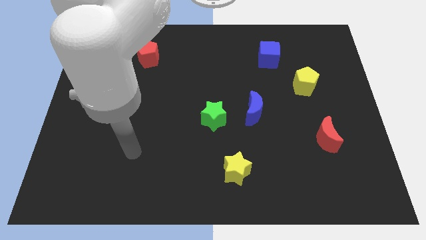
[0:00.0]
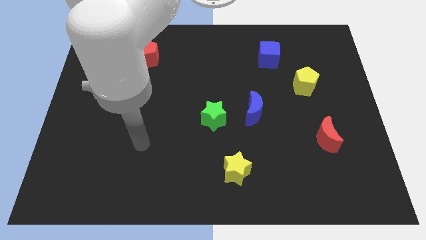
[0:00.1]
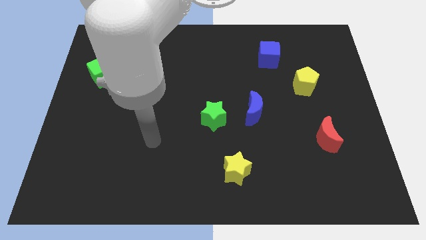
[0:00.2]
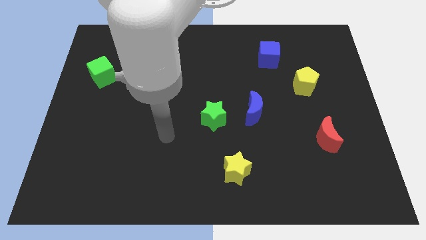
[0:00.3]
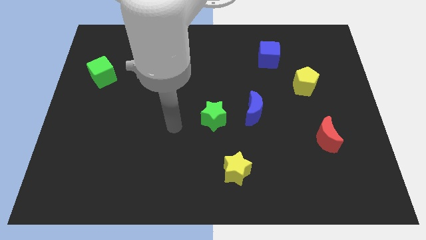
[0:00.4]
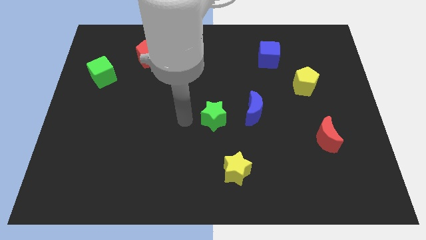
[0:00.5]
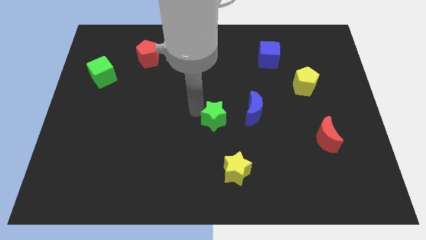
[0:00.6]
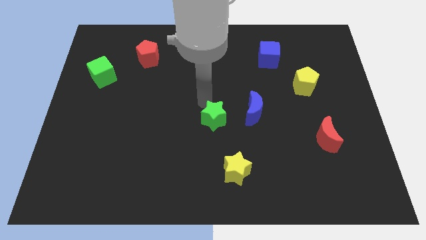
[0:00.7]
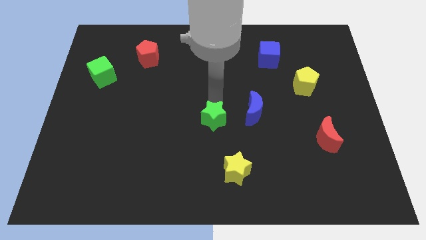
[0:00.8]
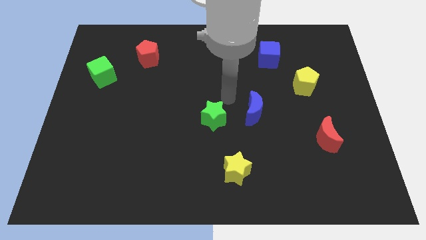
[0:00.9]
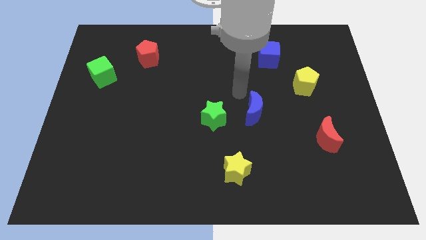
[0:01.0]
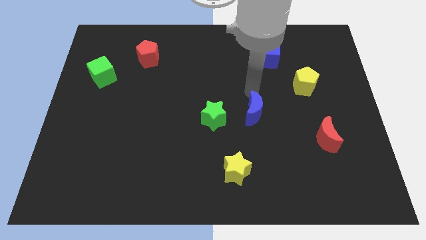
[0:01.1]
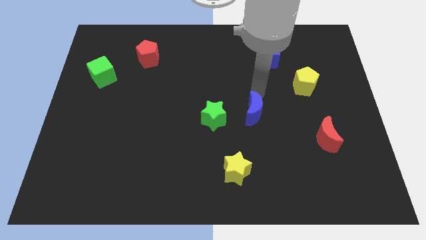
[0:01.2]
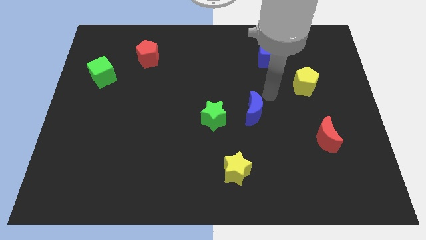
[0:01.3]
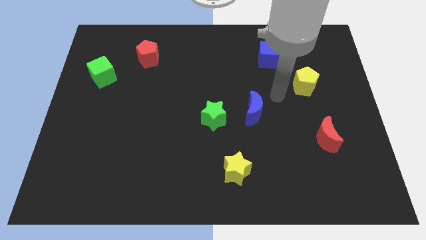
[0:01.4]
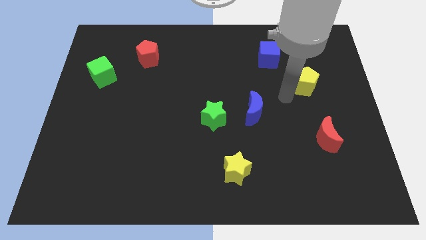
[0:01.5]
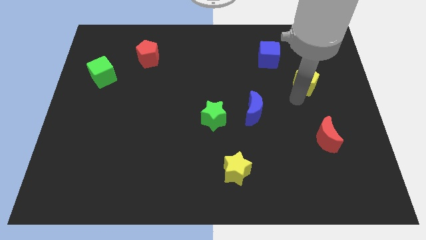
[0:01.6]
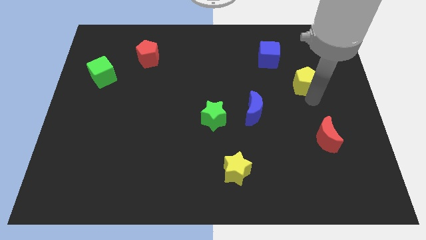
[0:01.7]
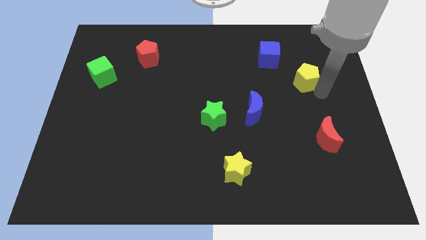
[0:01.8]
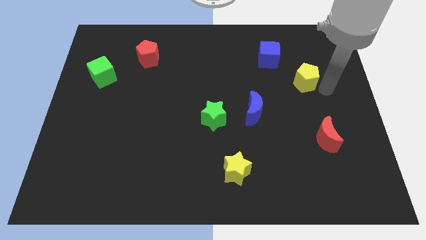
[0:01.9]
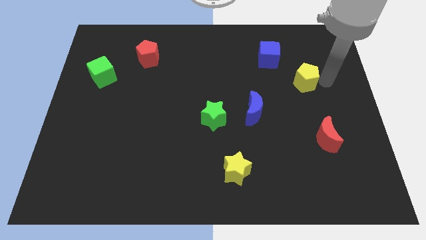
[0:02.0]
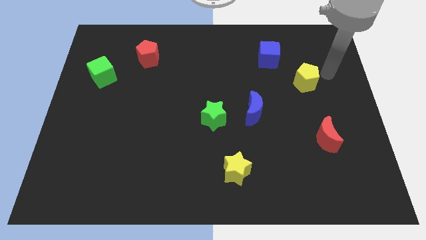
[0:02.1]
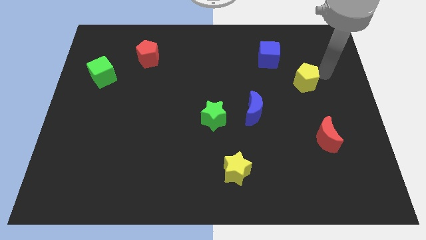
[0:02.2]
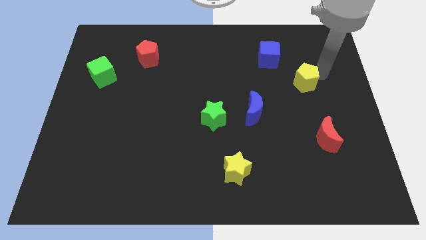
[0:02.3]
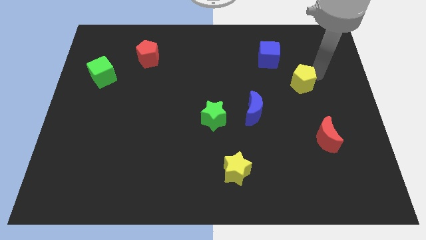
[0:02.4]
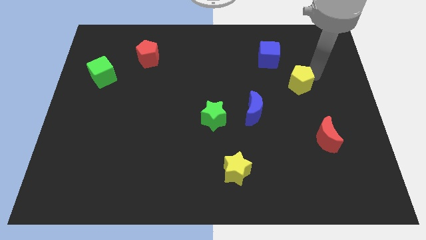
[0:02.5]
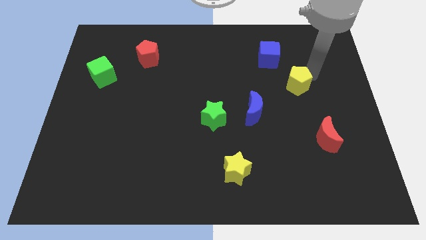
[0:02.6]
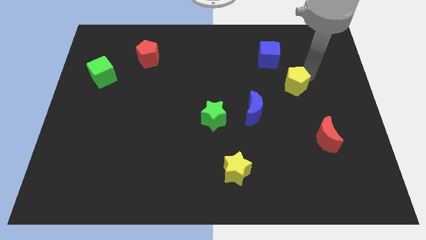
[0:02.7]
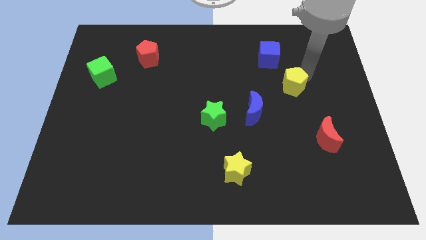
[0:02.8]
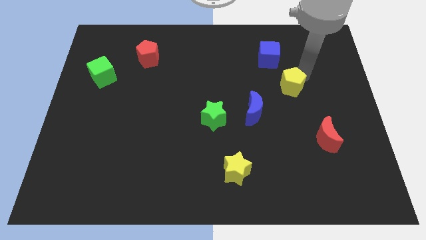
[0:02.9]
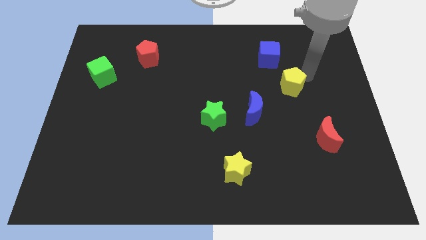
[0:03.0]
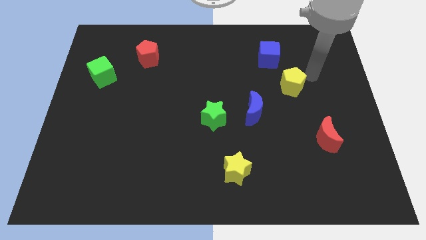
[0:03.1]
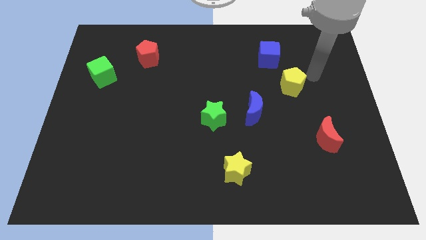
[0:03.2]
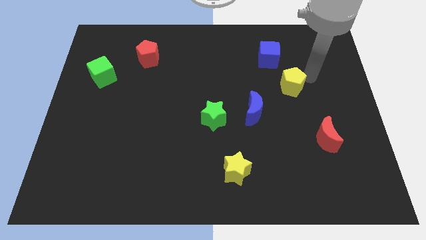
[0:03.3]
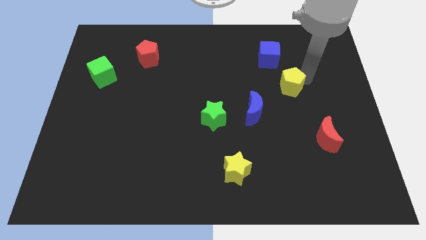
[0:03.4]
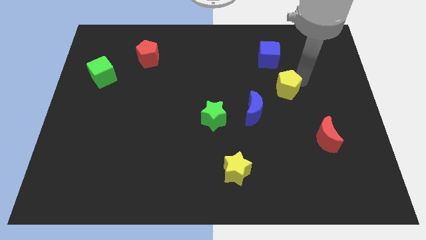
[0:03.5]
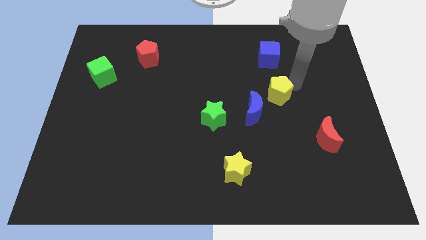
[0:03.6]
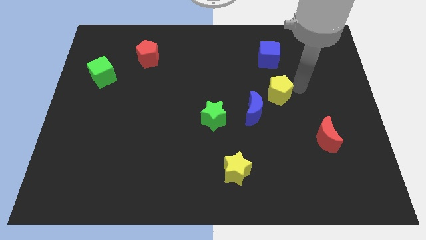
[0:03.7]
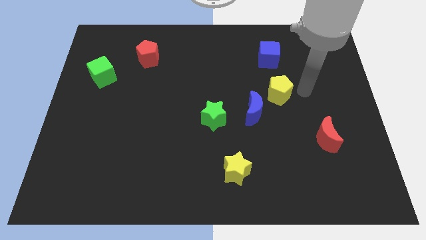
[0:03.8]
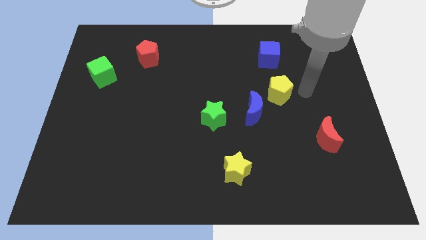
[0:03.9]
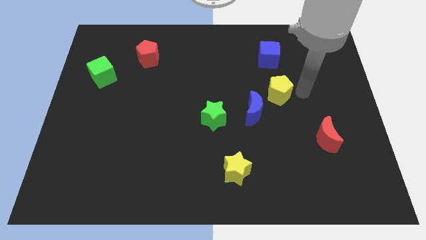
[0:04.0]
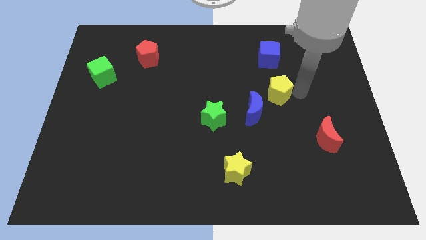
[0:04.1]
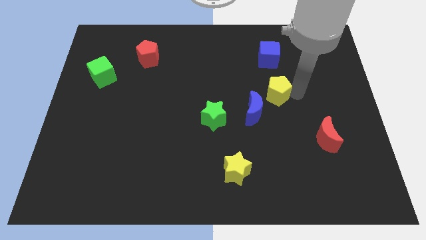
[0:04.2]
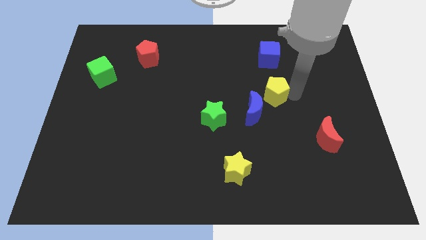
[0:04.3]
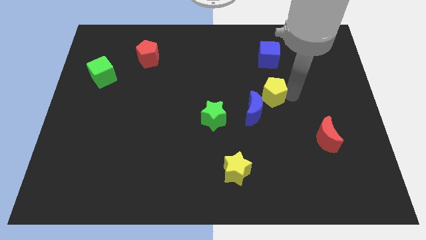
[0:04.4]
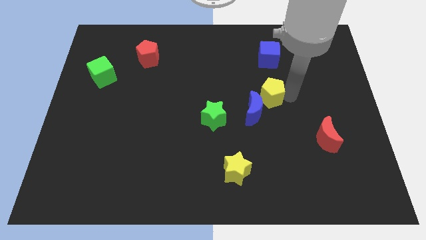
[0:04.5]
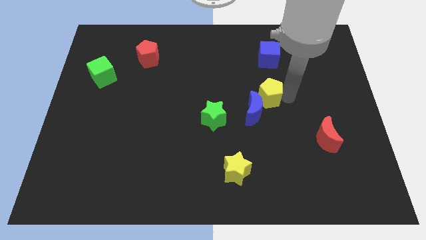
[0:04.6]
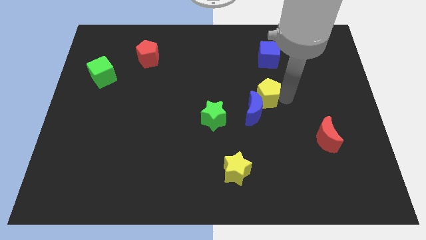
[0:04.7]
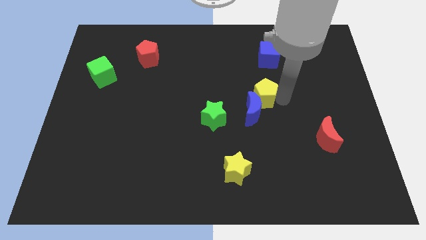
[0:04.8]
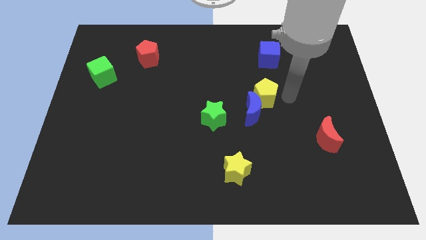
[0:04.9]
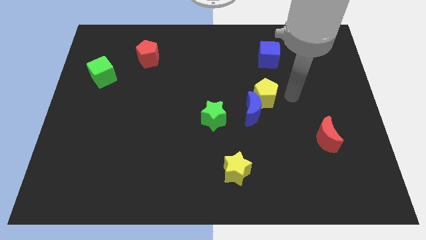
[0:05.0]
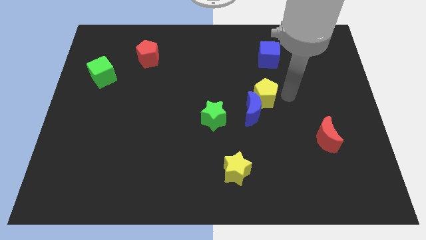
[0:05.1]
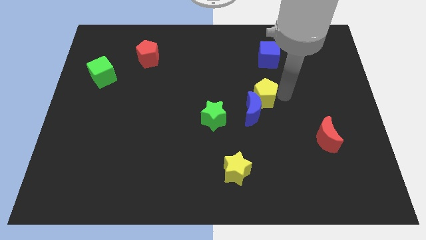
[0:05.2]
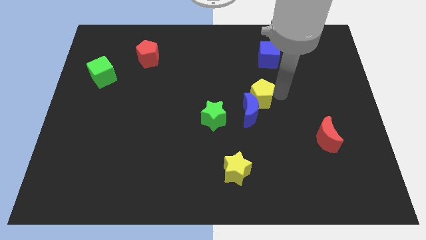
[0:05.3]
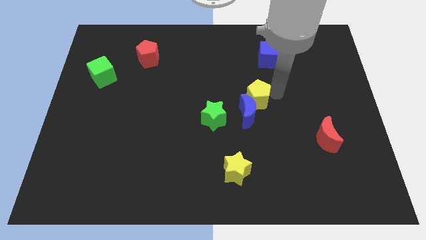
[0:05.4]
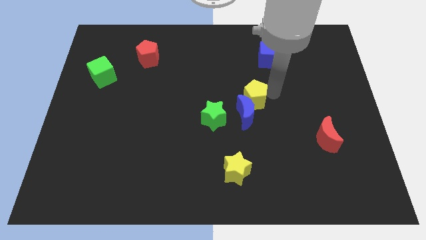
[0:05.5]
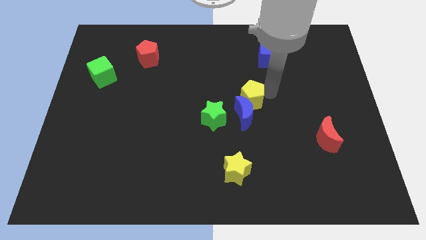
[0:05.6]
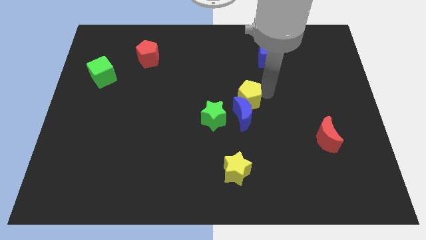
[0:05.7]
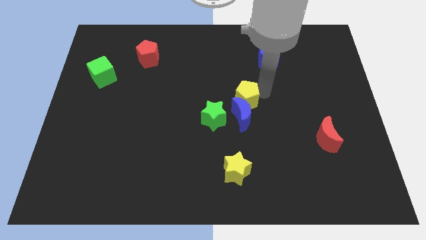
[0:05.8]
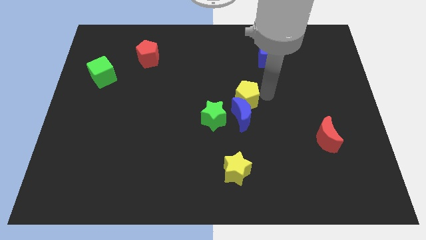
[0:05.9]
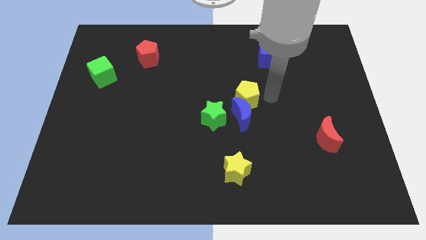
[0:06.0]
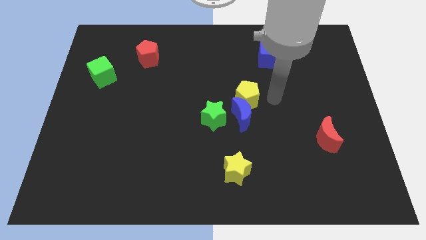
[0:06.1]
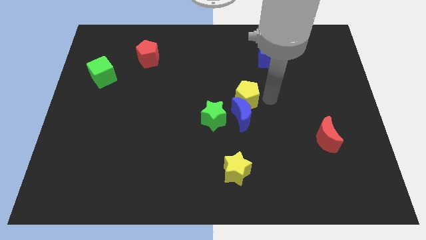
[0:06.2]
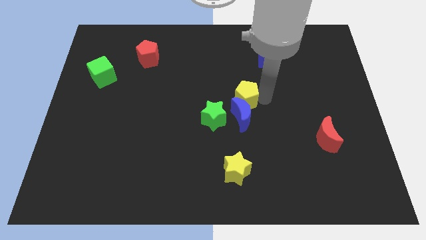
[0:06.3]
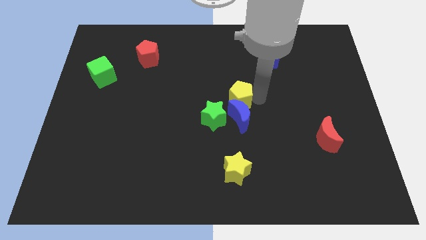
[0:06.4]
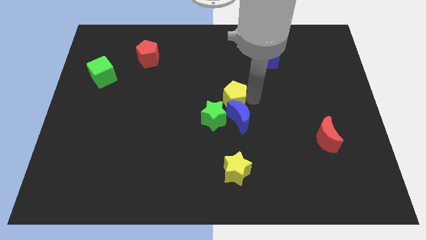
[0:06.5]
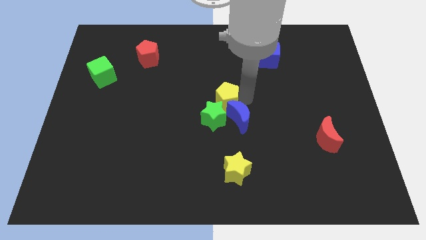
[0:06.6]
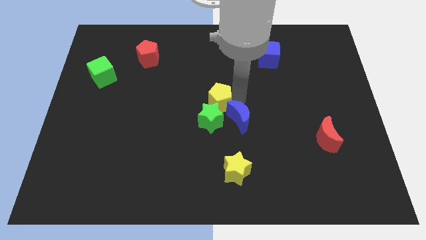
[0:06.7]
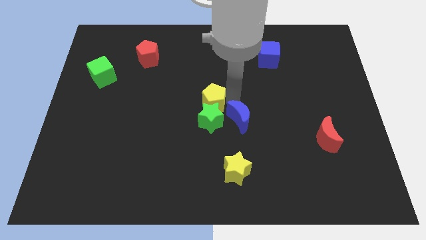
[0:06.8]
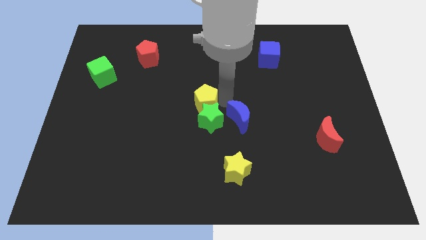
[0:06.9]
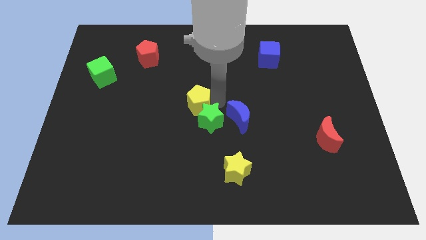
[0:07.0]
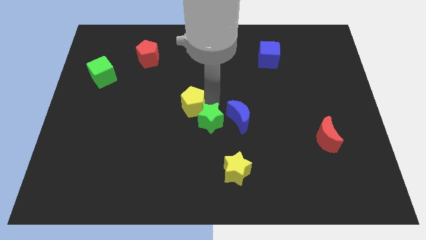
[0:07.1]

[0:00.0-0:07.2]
slide the yellow pentagon to the left side of the green star

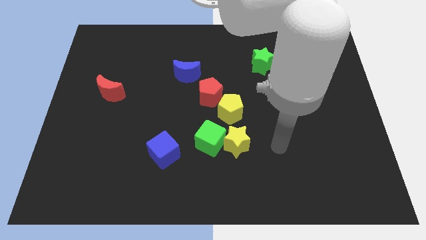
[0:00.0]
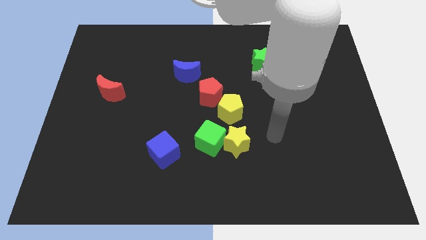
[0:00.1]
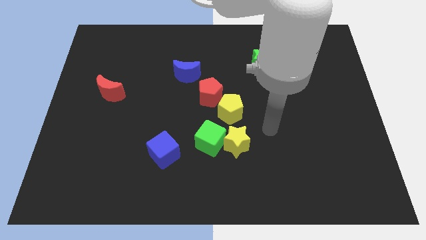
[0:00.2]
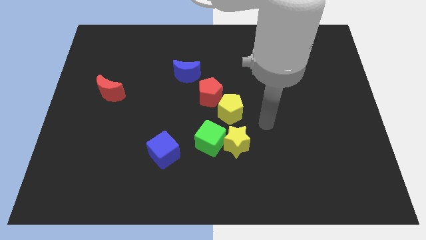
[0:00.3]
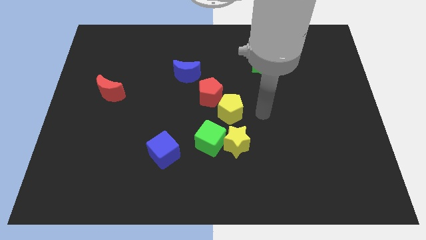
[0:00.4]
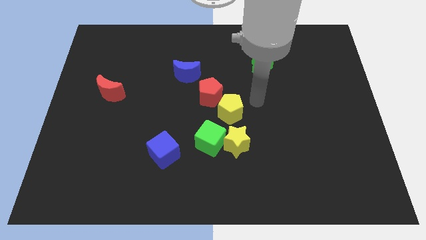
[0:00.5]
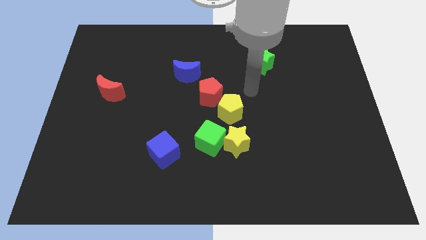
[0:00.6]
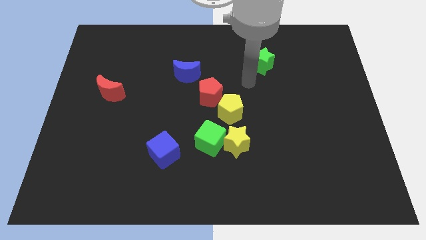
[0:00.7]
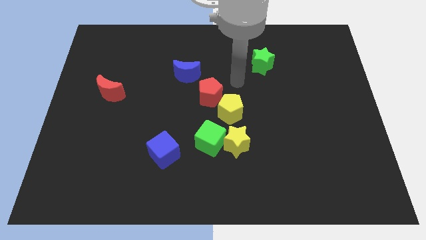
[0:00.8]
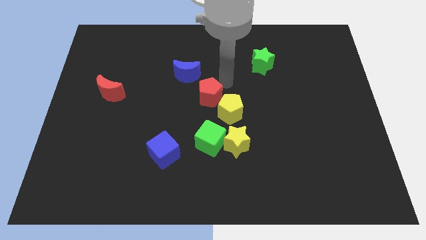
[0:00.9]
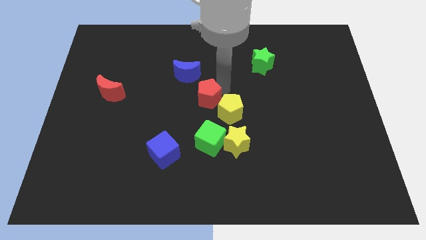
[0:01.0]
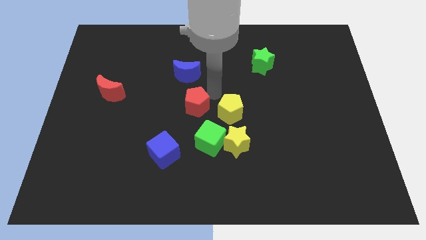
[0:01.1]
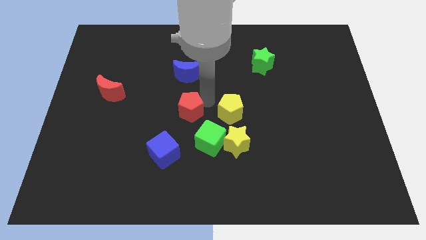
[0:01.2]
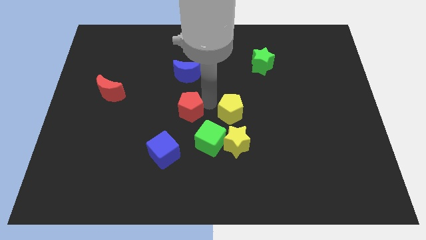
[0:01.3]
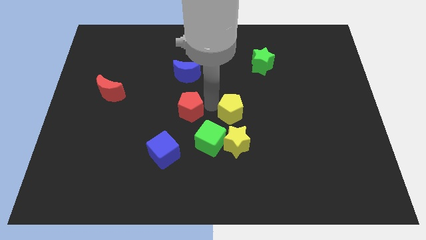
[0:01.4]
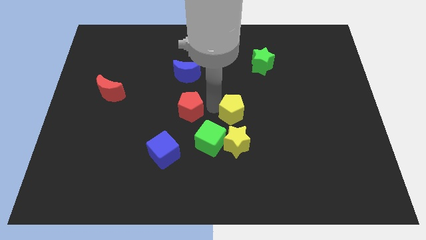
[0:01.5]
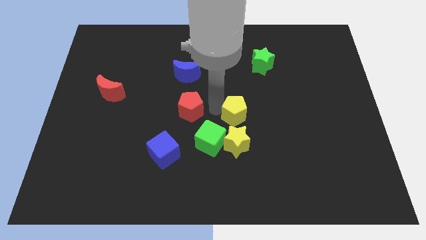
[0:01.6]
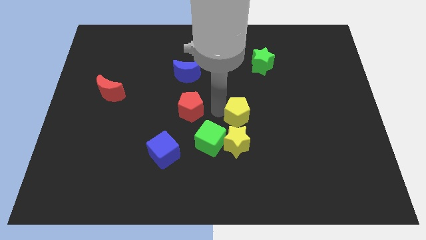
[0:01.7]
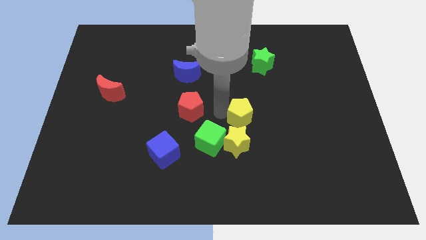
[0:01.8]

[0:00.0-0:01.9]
put the yellow pentagon to the top right side of the yellow star
